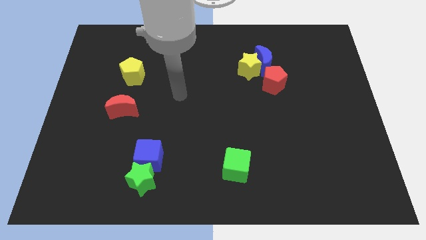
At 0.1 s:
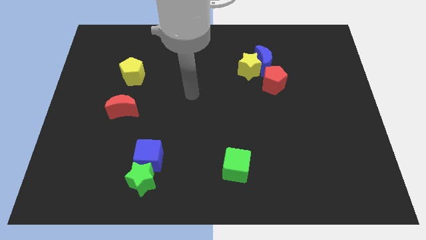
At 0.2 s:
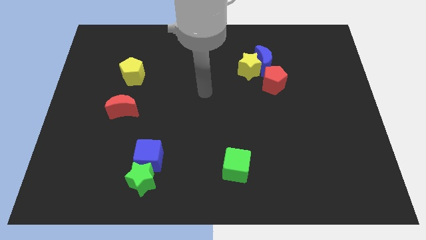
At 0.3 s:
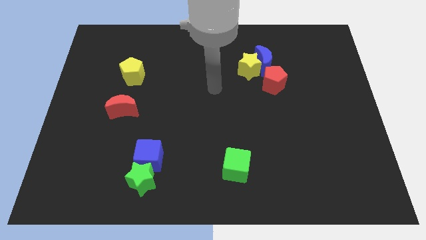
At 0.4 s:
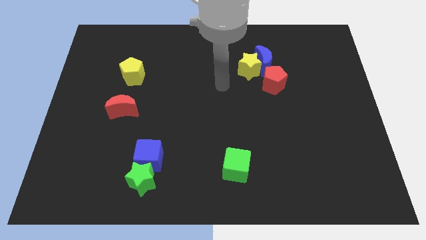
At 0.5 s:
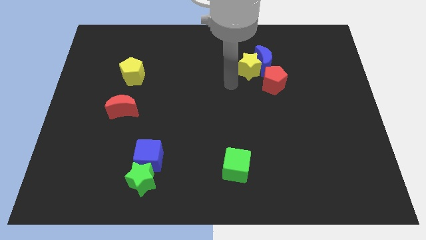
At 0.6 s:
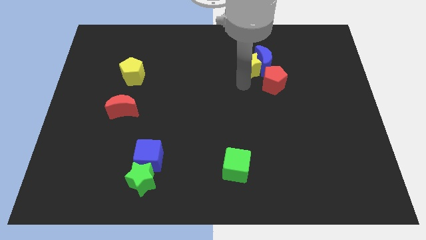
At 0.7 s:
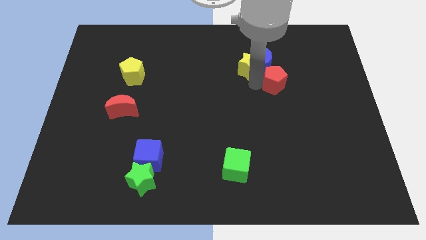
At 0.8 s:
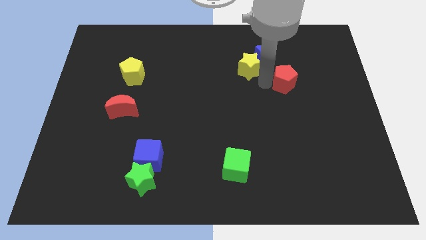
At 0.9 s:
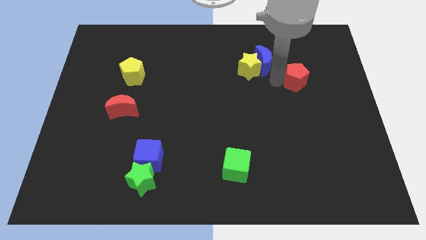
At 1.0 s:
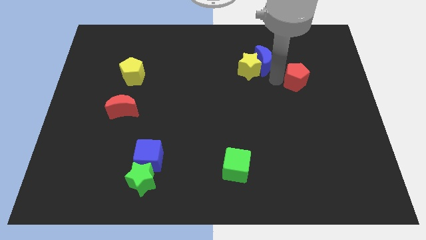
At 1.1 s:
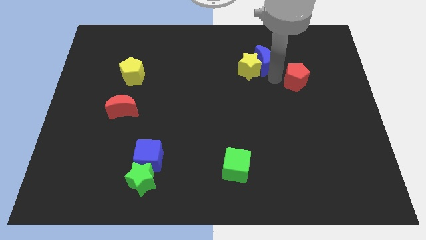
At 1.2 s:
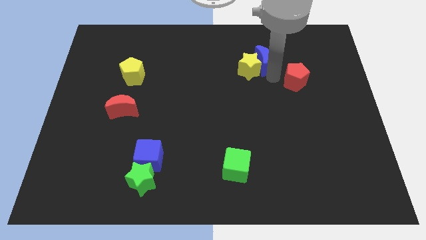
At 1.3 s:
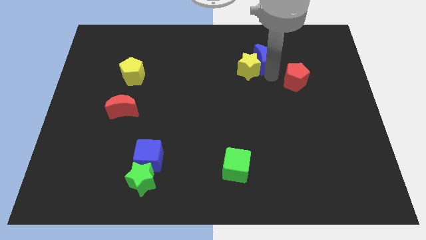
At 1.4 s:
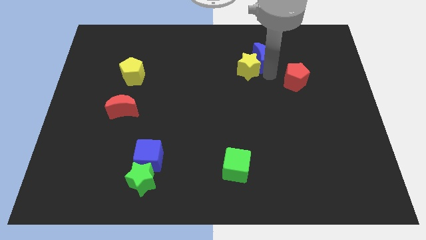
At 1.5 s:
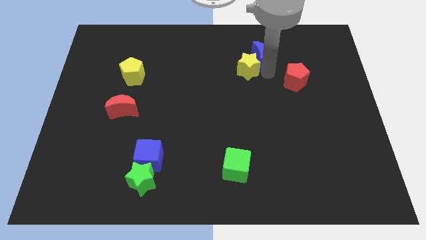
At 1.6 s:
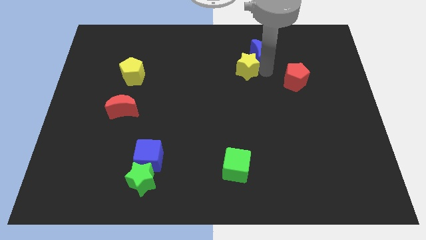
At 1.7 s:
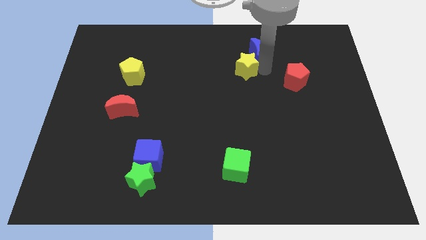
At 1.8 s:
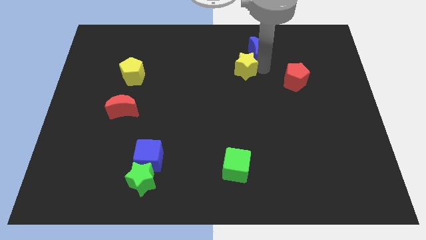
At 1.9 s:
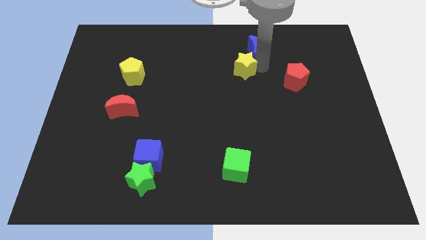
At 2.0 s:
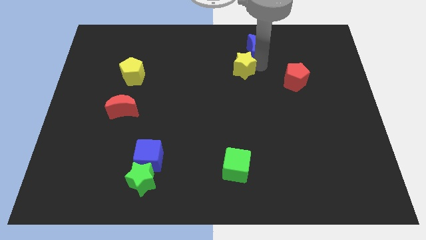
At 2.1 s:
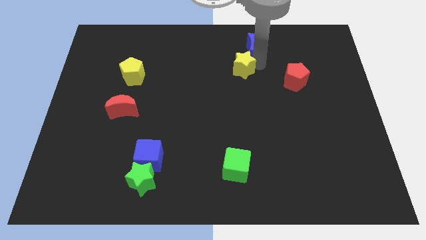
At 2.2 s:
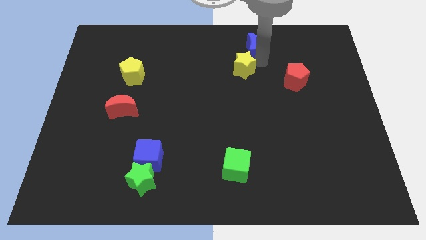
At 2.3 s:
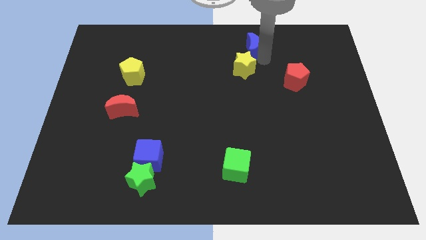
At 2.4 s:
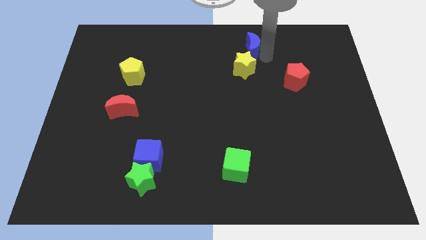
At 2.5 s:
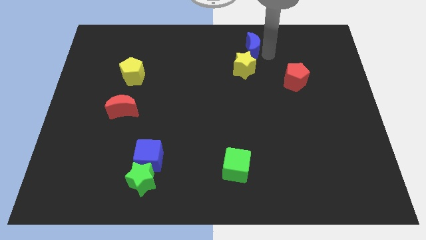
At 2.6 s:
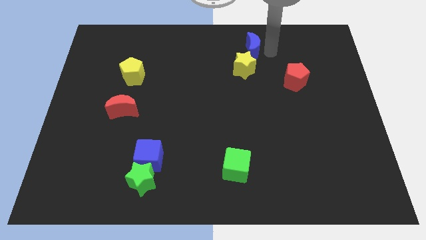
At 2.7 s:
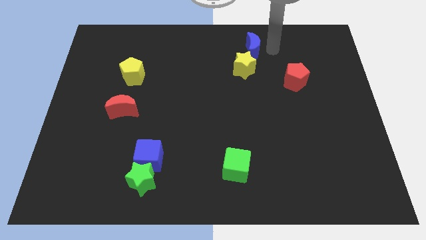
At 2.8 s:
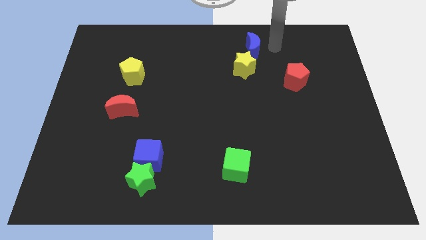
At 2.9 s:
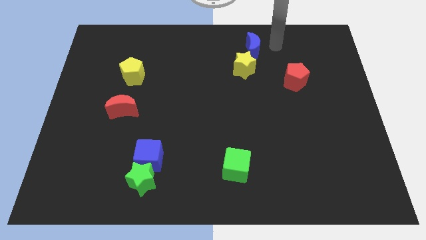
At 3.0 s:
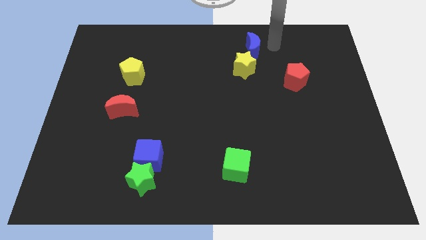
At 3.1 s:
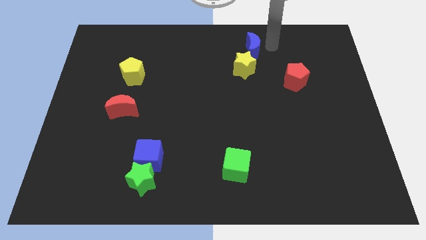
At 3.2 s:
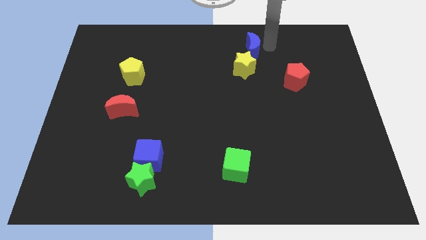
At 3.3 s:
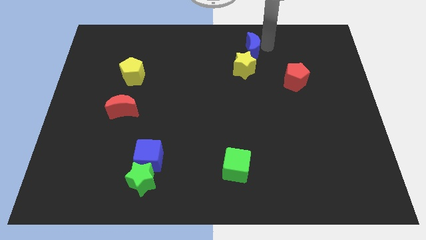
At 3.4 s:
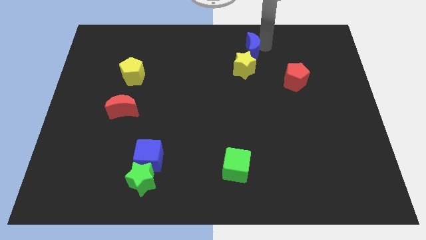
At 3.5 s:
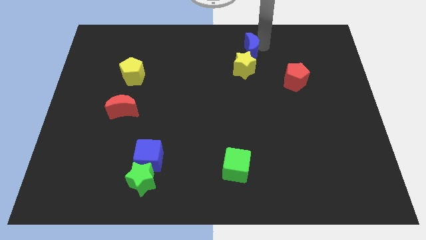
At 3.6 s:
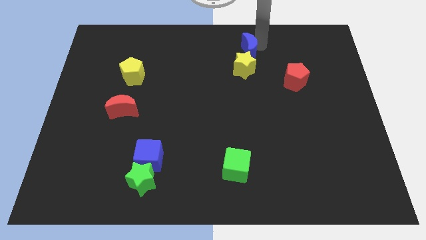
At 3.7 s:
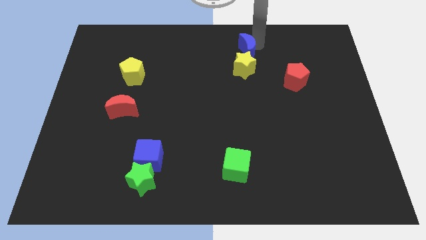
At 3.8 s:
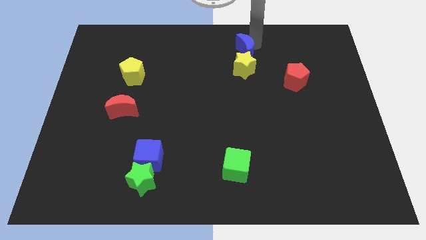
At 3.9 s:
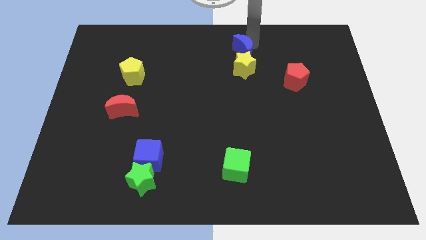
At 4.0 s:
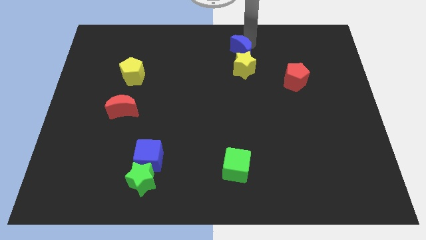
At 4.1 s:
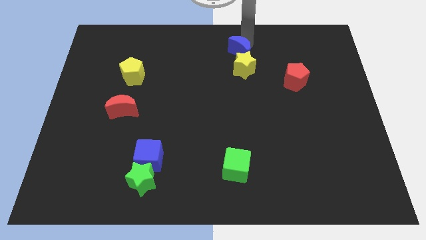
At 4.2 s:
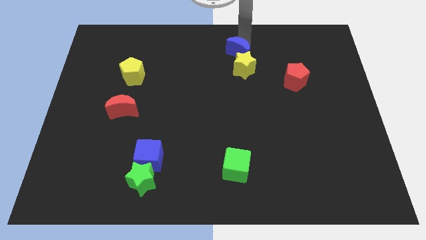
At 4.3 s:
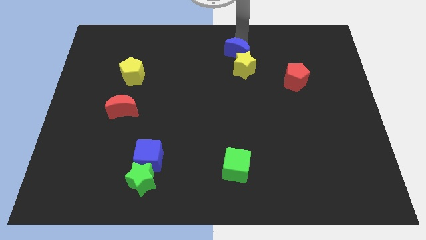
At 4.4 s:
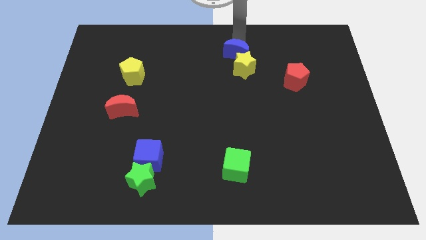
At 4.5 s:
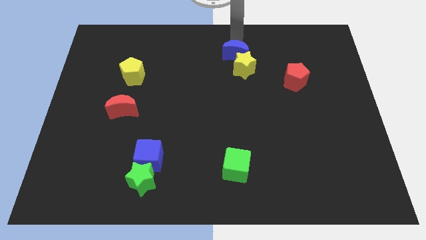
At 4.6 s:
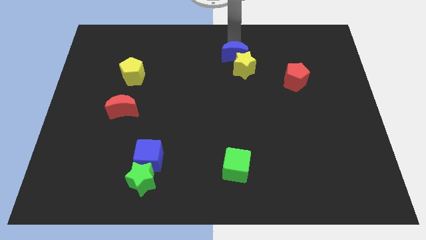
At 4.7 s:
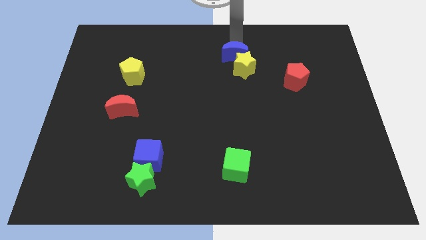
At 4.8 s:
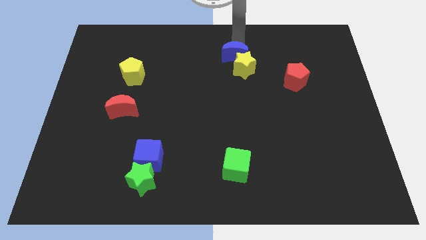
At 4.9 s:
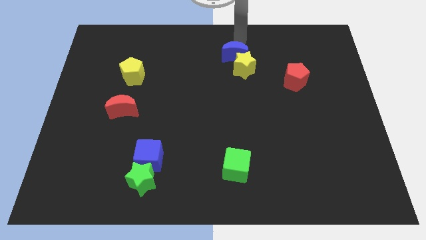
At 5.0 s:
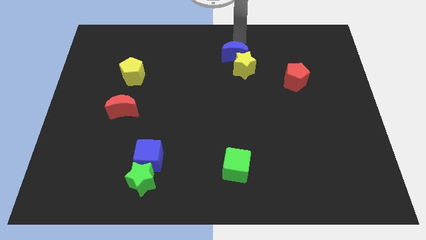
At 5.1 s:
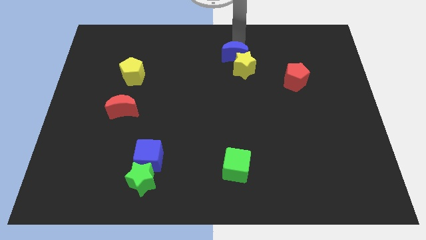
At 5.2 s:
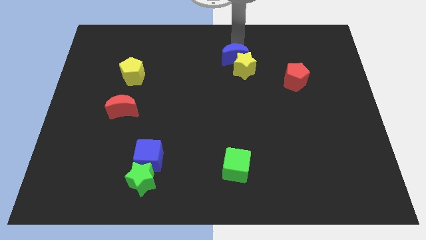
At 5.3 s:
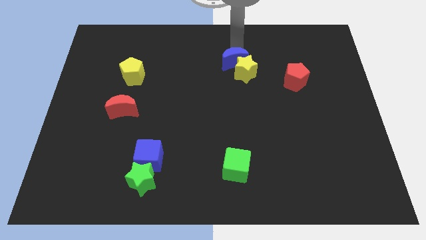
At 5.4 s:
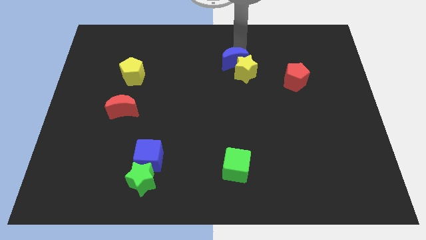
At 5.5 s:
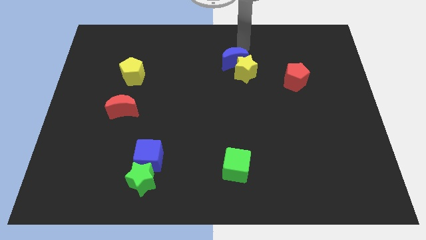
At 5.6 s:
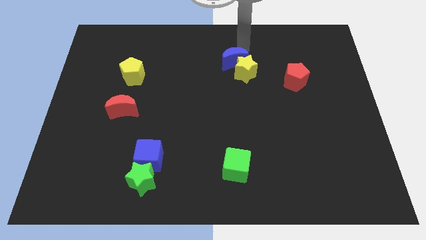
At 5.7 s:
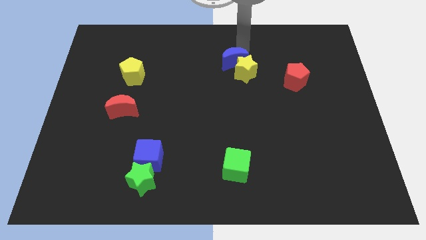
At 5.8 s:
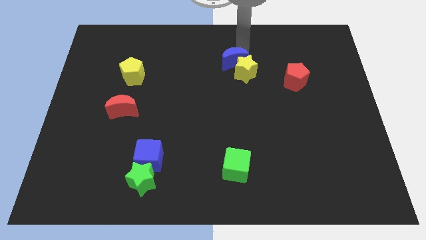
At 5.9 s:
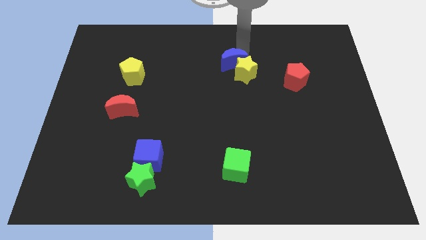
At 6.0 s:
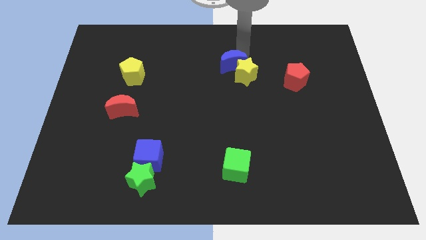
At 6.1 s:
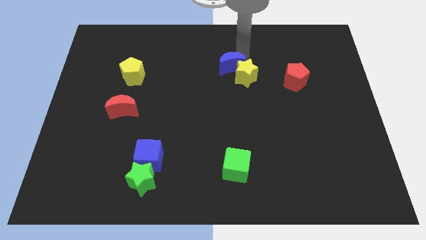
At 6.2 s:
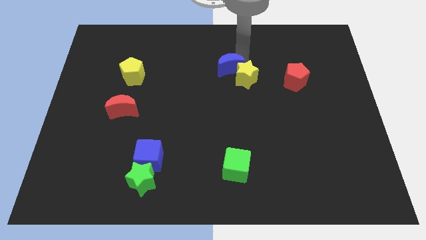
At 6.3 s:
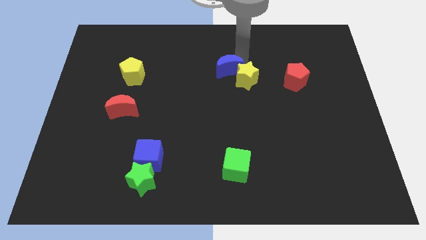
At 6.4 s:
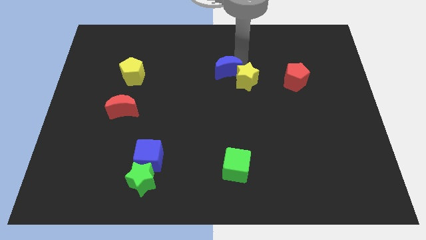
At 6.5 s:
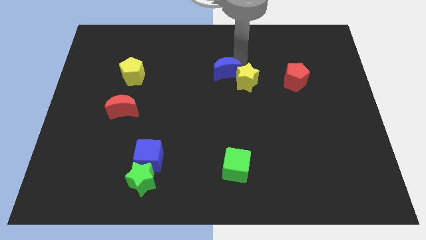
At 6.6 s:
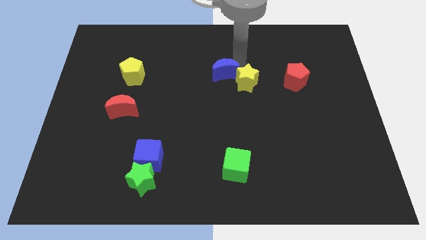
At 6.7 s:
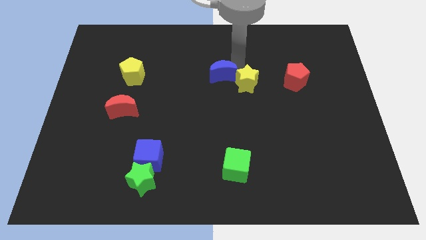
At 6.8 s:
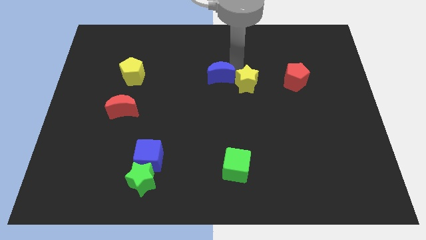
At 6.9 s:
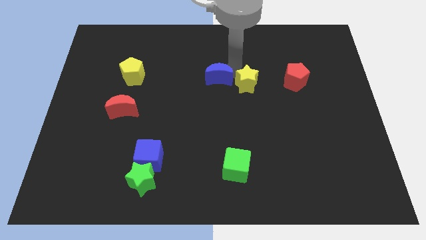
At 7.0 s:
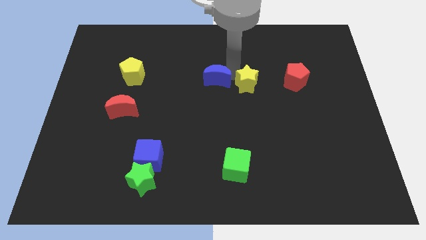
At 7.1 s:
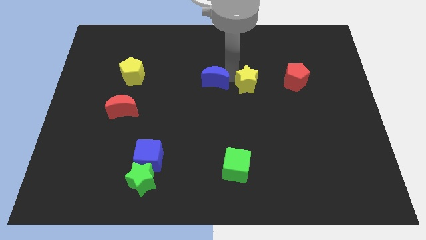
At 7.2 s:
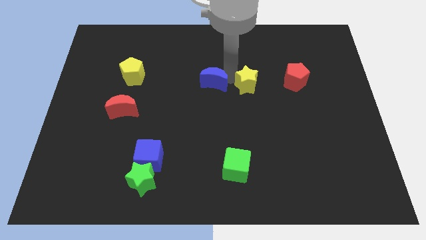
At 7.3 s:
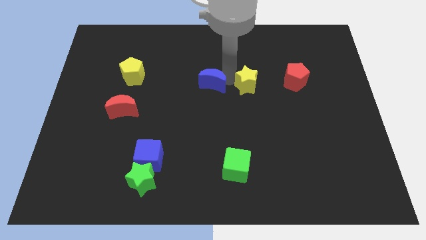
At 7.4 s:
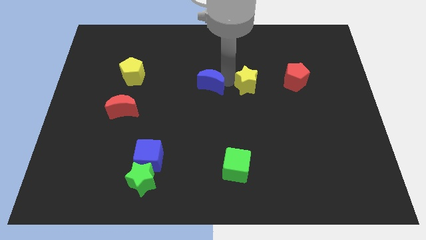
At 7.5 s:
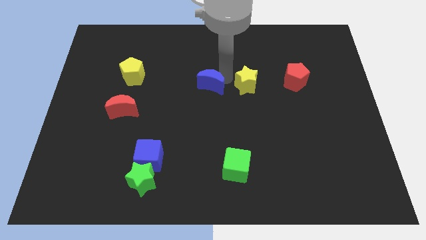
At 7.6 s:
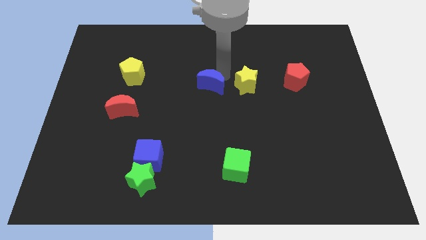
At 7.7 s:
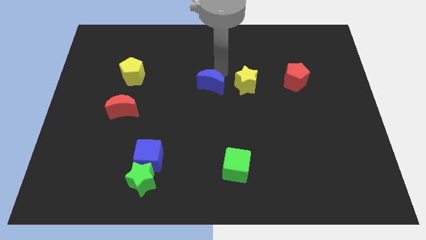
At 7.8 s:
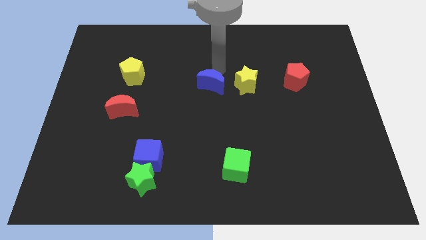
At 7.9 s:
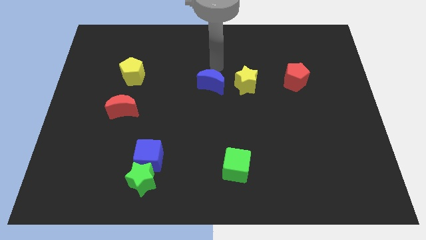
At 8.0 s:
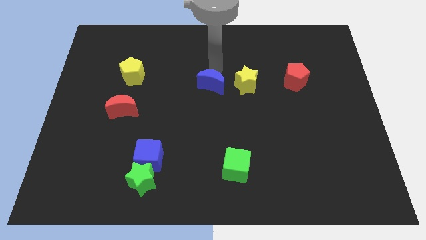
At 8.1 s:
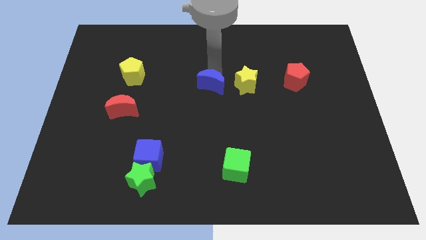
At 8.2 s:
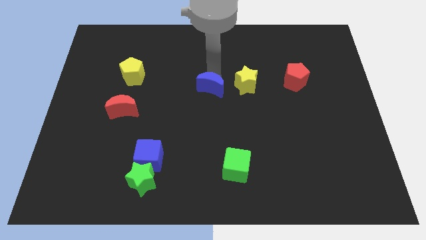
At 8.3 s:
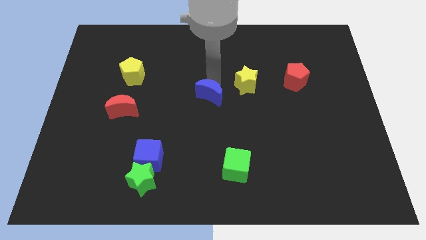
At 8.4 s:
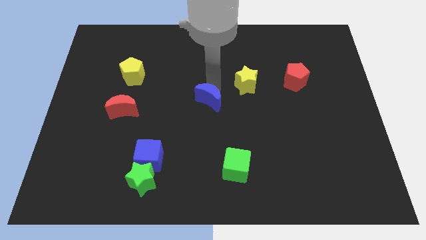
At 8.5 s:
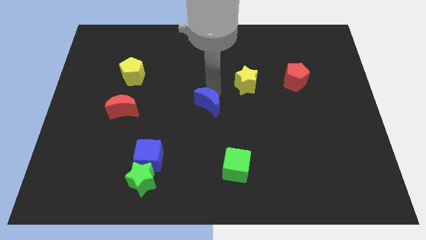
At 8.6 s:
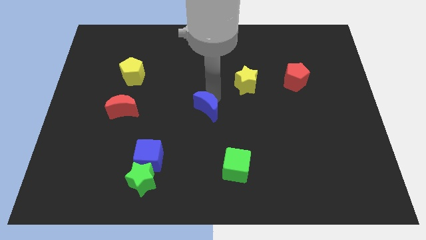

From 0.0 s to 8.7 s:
move the blue moon downwards and to the left
